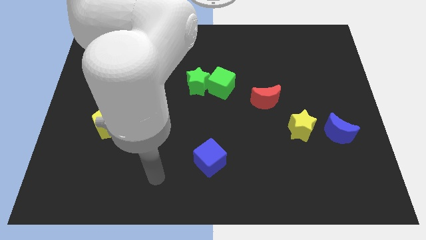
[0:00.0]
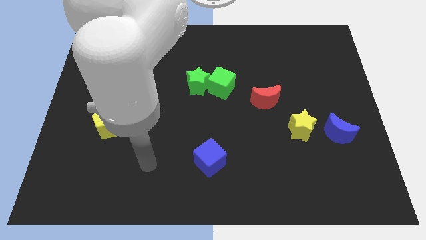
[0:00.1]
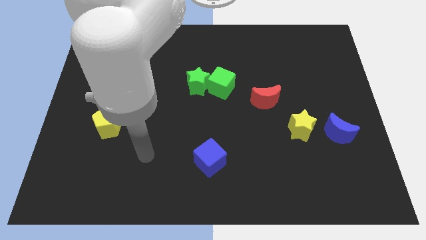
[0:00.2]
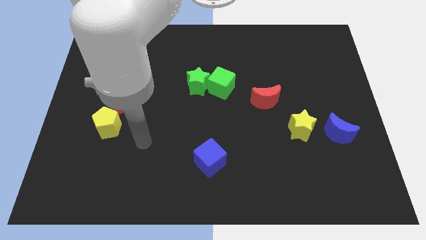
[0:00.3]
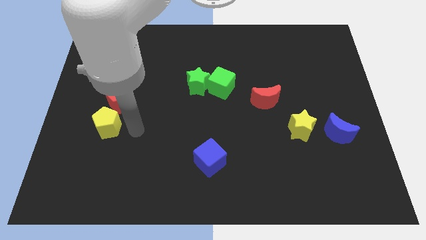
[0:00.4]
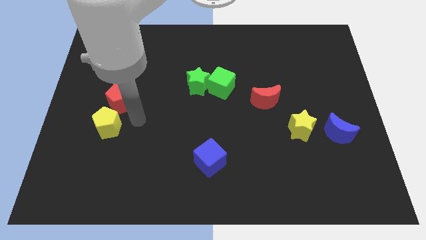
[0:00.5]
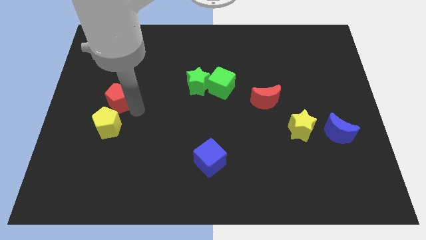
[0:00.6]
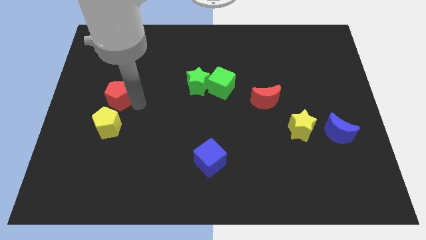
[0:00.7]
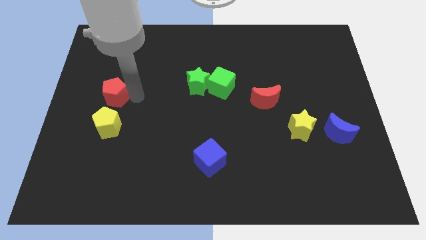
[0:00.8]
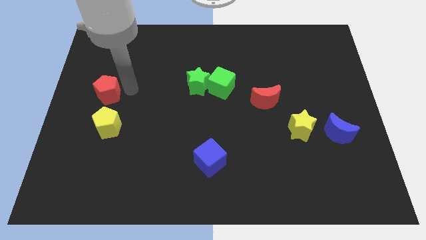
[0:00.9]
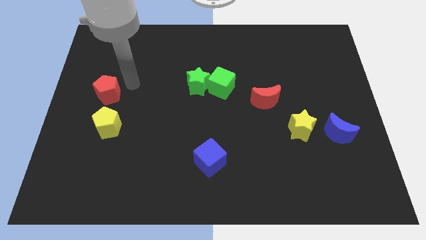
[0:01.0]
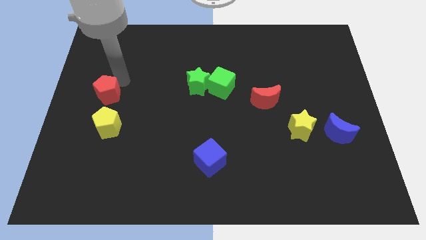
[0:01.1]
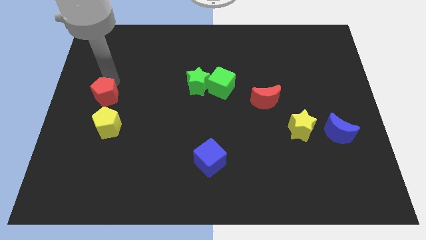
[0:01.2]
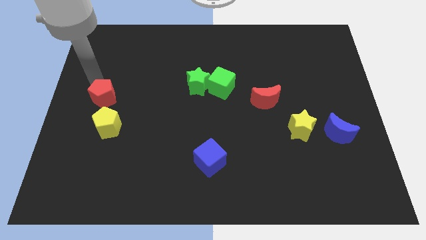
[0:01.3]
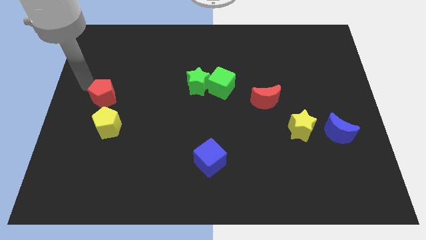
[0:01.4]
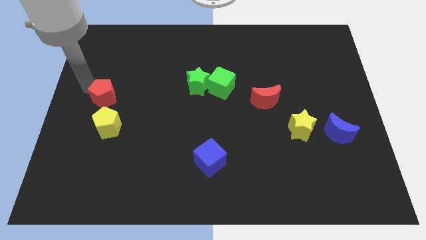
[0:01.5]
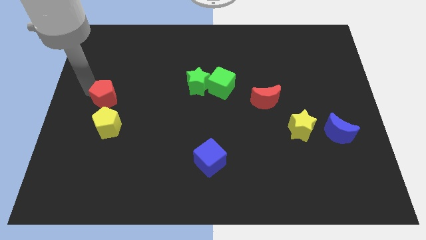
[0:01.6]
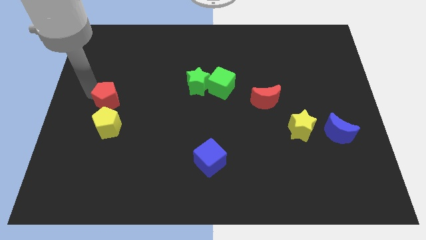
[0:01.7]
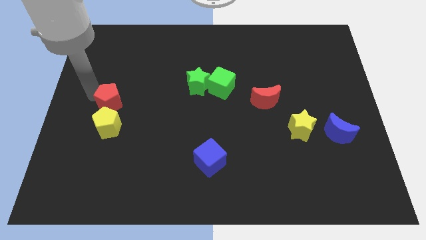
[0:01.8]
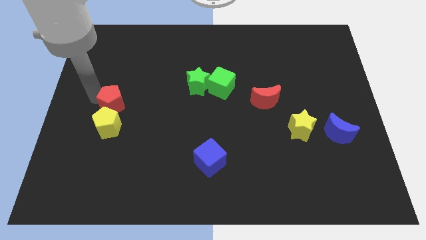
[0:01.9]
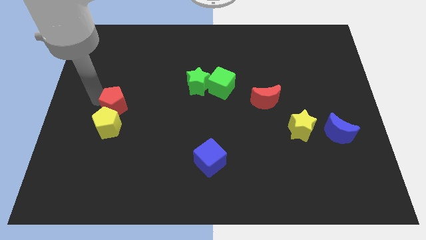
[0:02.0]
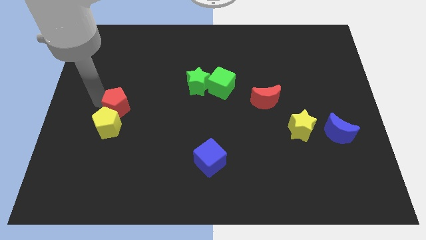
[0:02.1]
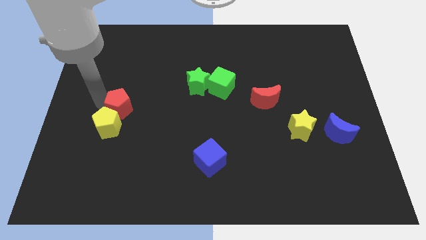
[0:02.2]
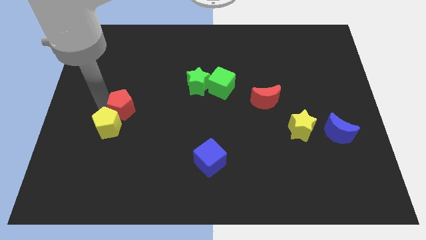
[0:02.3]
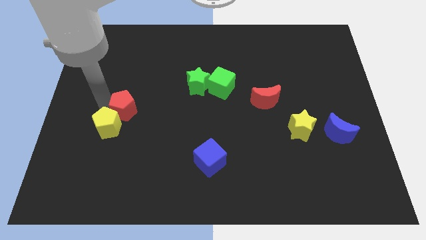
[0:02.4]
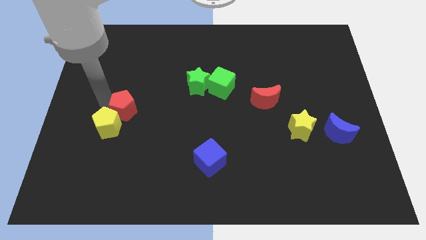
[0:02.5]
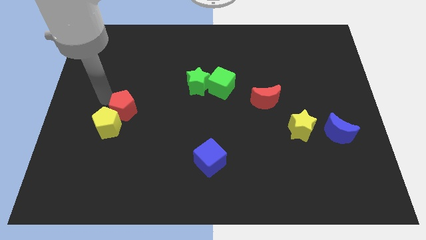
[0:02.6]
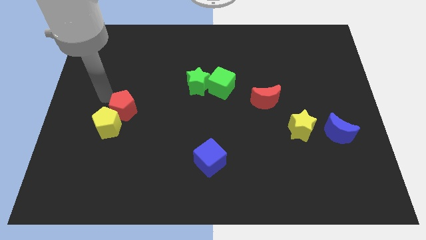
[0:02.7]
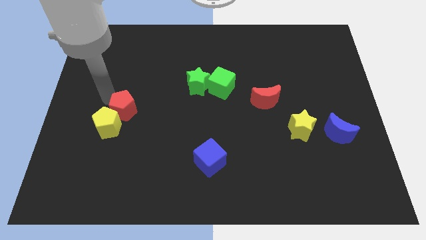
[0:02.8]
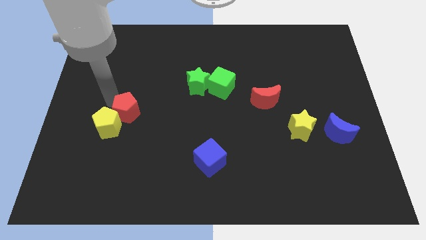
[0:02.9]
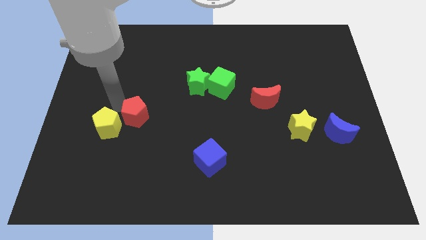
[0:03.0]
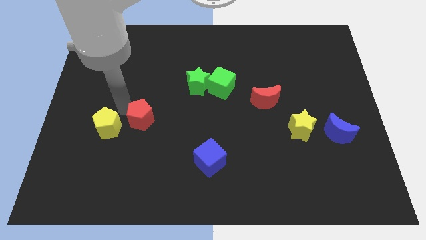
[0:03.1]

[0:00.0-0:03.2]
slide the red pentagon a little downwards and then right

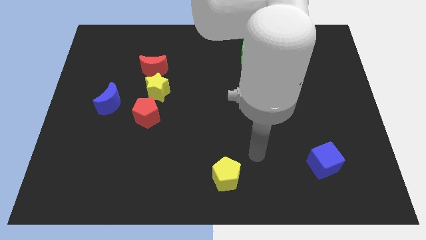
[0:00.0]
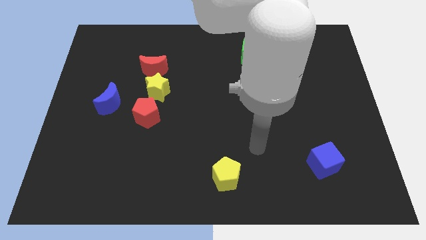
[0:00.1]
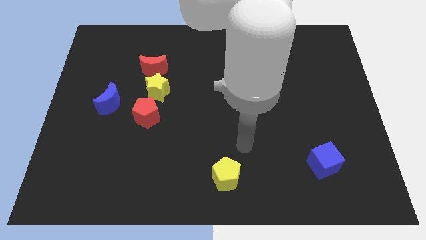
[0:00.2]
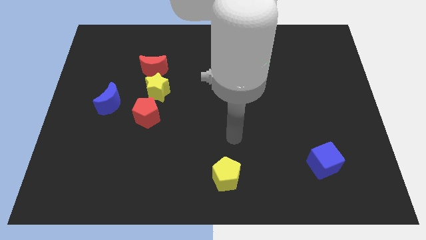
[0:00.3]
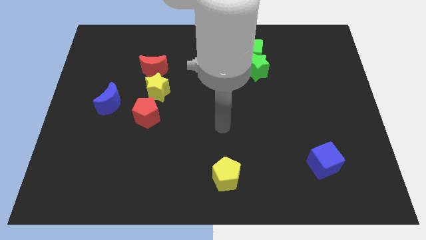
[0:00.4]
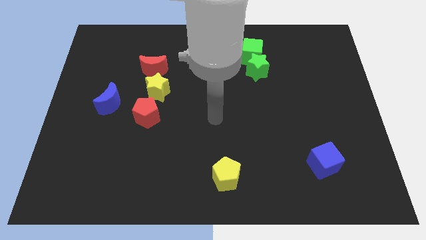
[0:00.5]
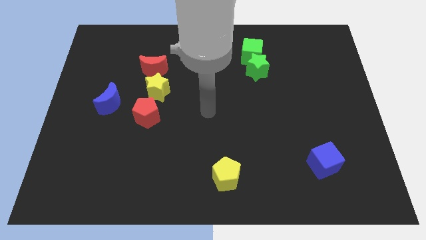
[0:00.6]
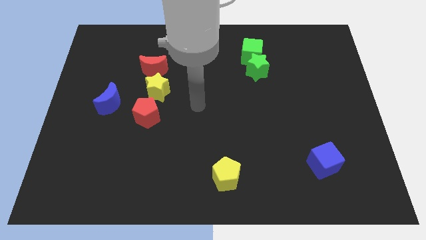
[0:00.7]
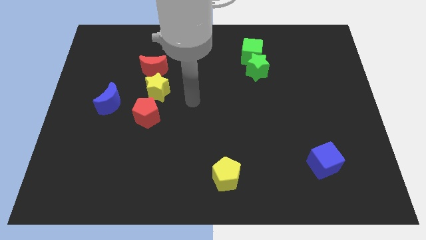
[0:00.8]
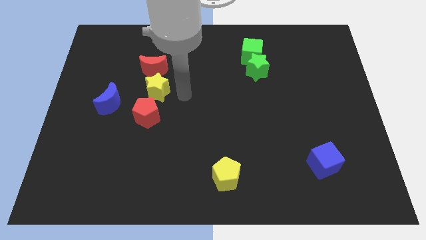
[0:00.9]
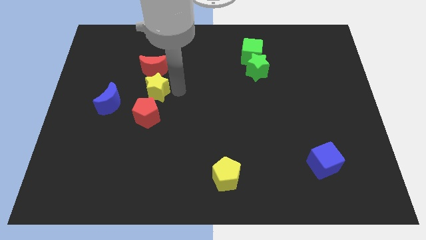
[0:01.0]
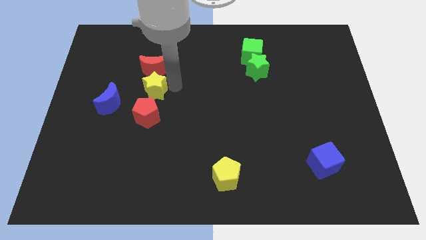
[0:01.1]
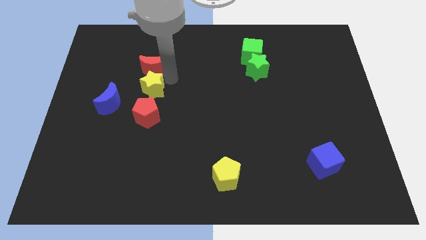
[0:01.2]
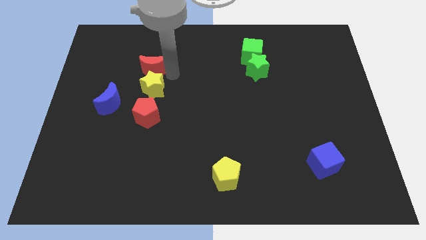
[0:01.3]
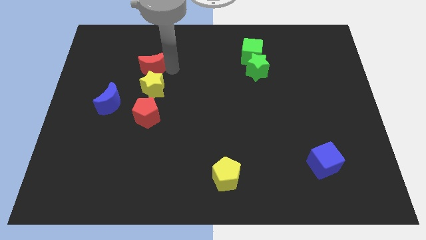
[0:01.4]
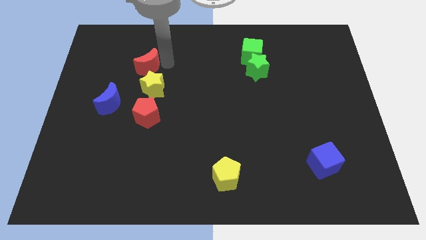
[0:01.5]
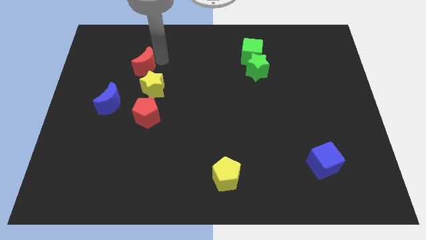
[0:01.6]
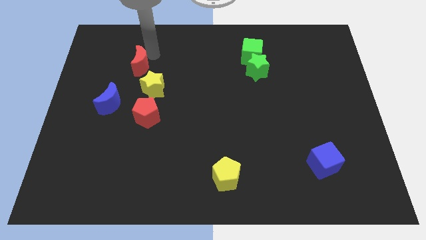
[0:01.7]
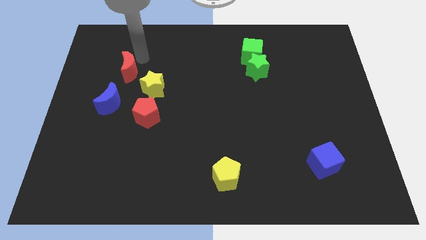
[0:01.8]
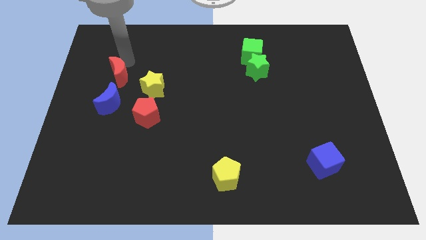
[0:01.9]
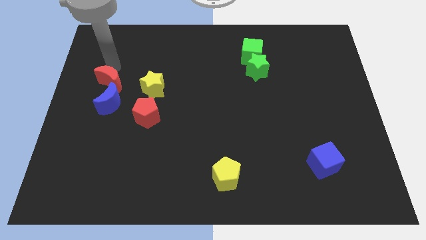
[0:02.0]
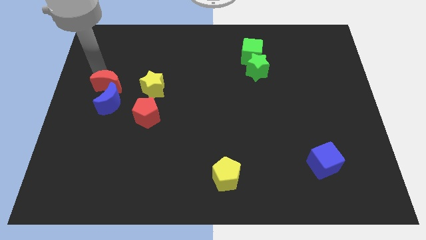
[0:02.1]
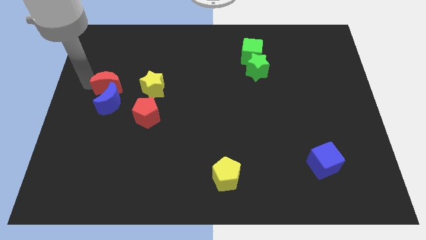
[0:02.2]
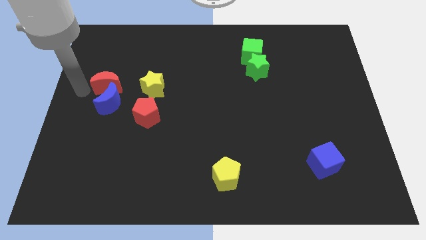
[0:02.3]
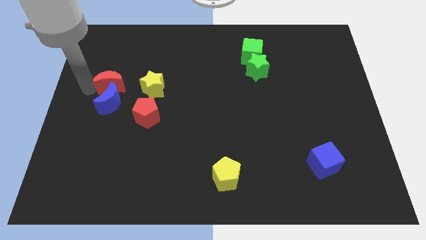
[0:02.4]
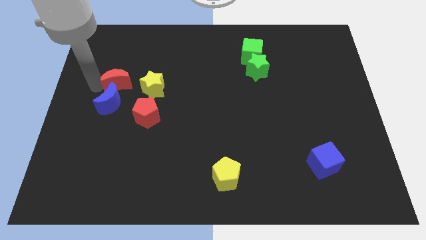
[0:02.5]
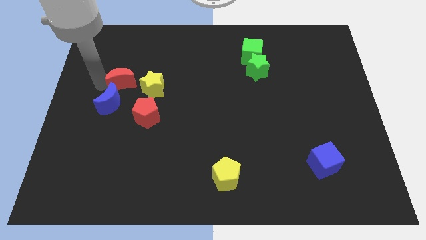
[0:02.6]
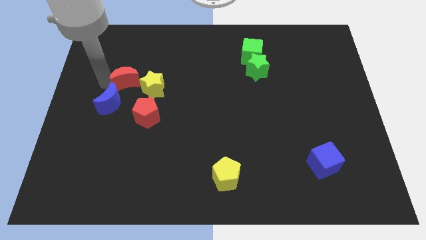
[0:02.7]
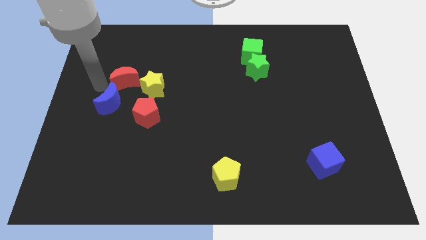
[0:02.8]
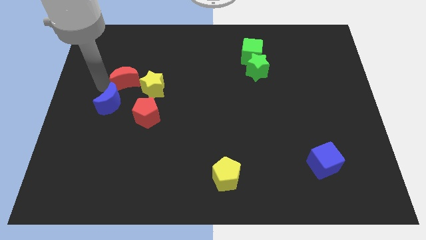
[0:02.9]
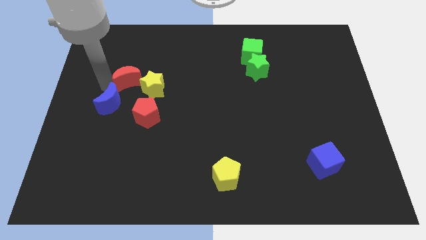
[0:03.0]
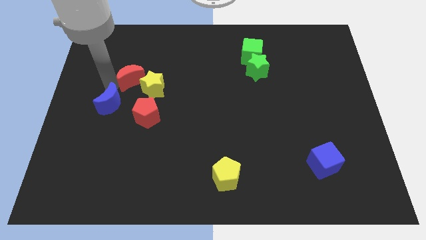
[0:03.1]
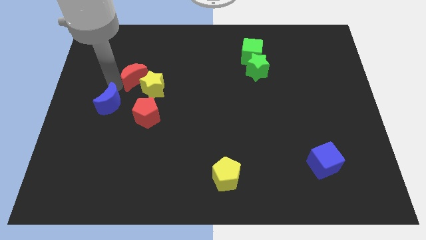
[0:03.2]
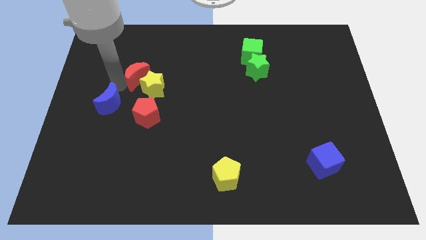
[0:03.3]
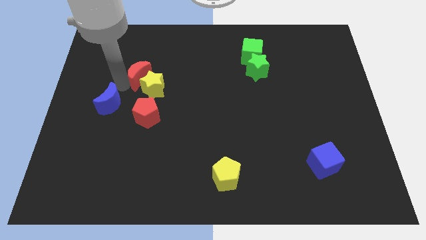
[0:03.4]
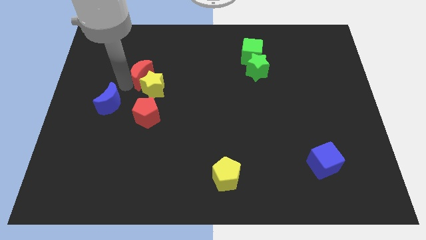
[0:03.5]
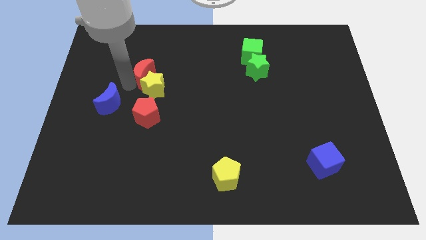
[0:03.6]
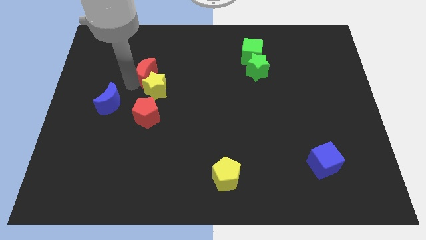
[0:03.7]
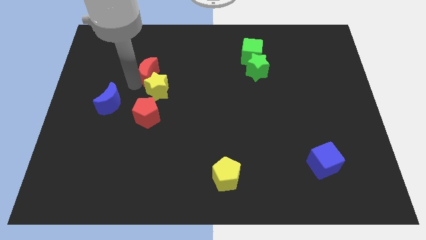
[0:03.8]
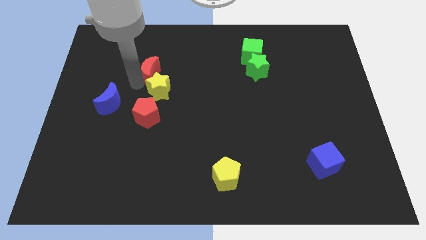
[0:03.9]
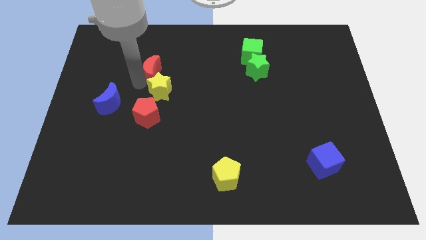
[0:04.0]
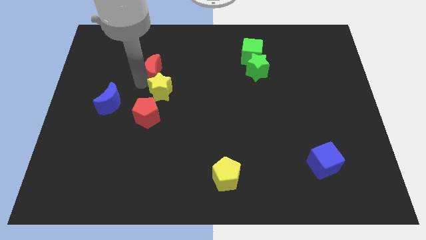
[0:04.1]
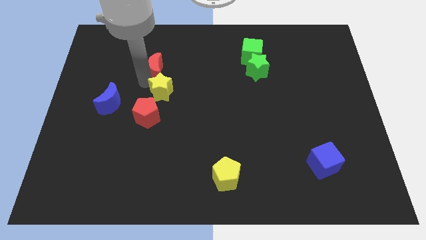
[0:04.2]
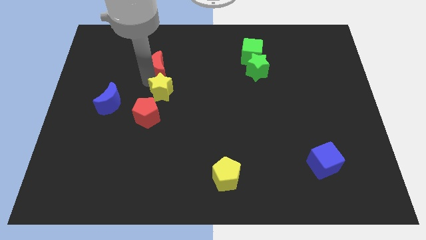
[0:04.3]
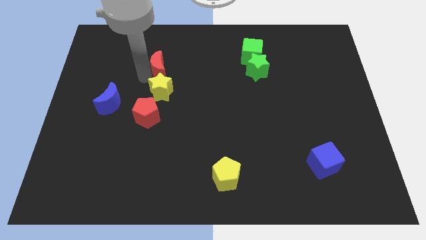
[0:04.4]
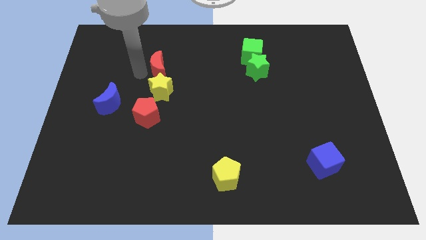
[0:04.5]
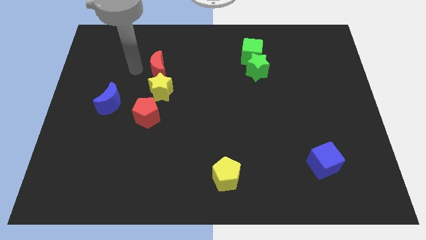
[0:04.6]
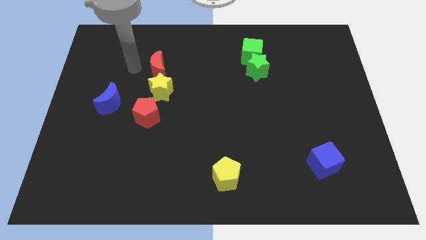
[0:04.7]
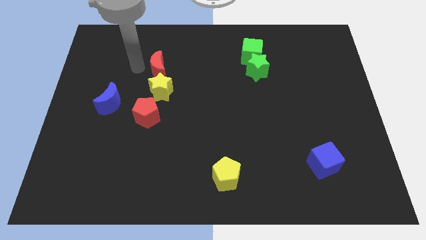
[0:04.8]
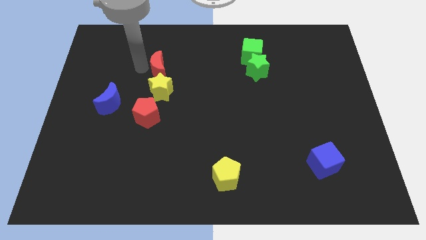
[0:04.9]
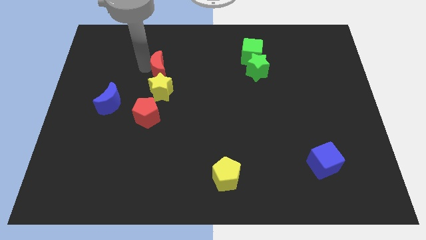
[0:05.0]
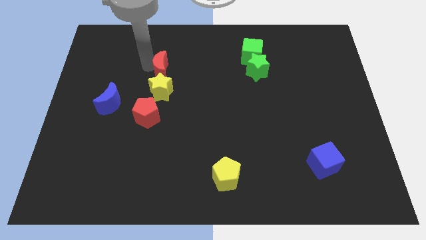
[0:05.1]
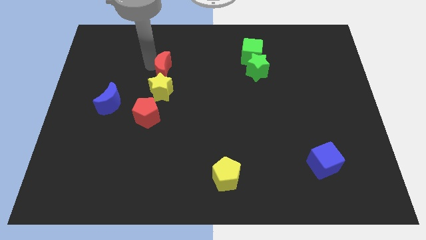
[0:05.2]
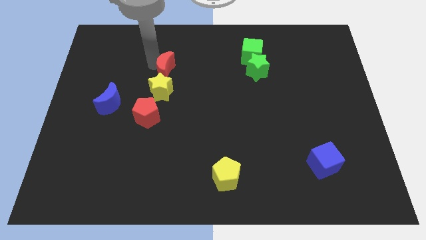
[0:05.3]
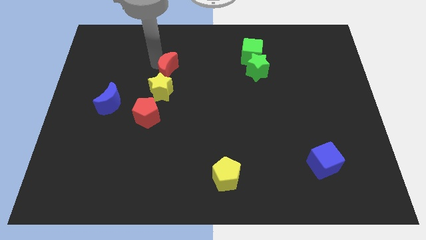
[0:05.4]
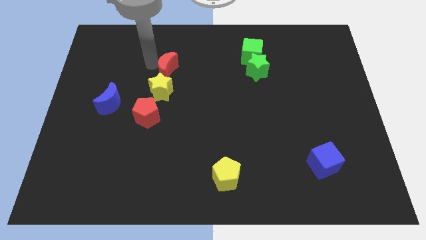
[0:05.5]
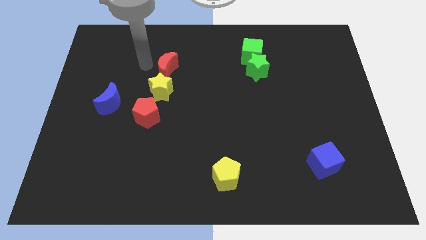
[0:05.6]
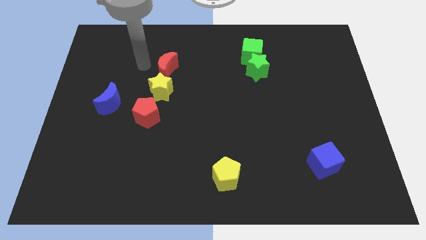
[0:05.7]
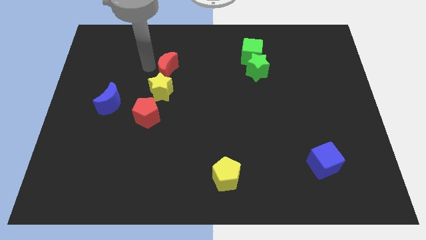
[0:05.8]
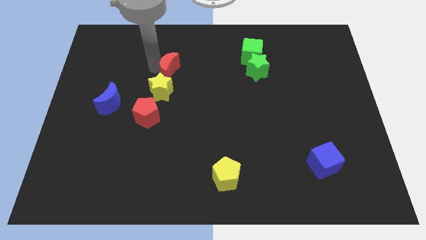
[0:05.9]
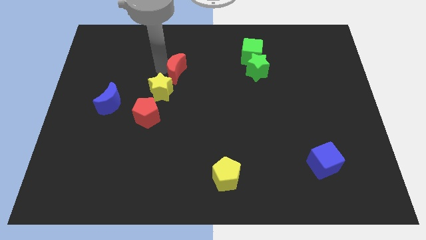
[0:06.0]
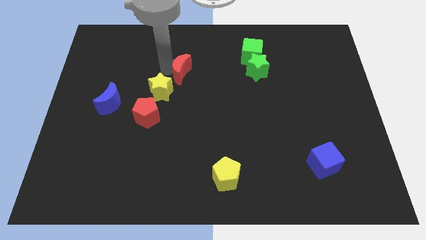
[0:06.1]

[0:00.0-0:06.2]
slide the red moon a little bit to the right
